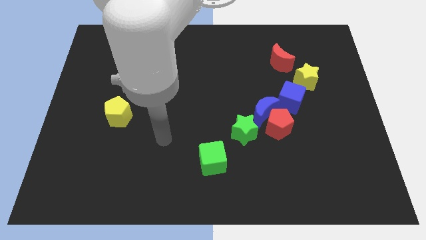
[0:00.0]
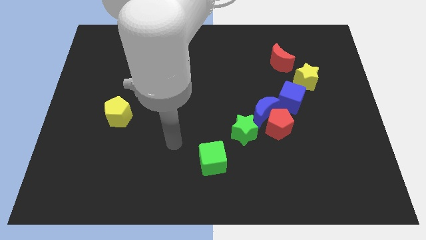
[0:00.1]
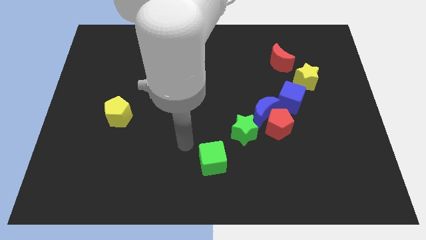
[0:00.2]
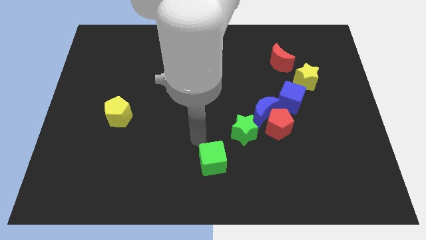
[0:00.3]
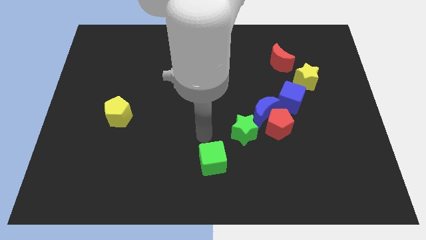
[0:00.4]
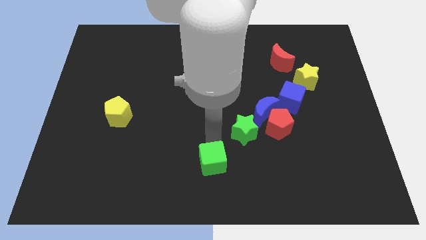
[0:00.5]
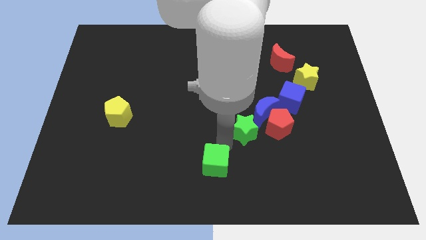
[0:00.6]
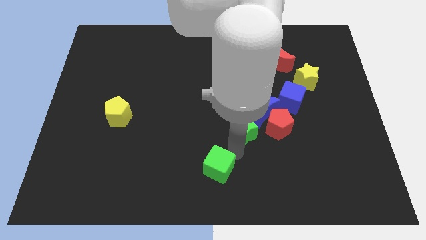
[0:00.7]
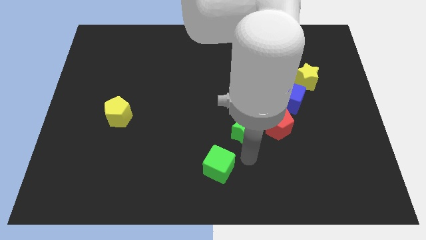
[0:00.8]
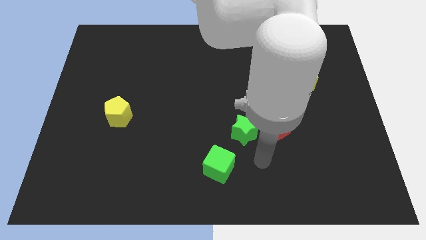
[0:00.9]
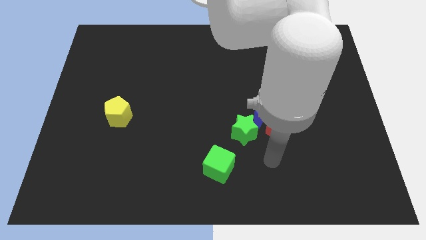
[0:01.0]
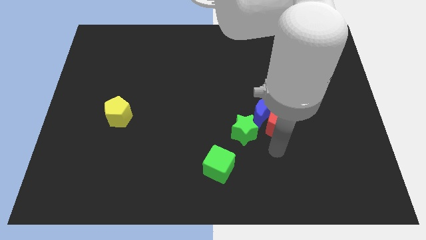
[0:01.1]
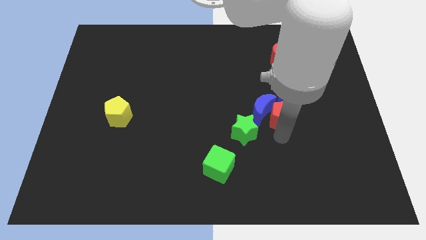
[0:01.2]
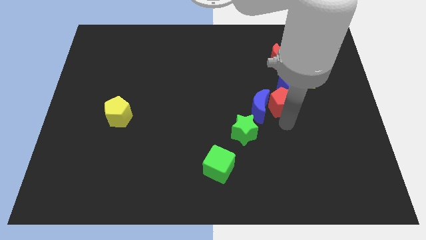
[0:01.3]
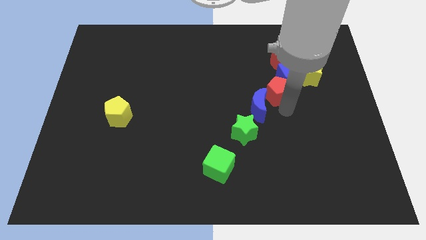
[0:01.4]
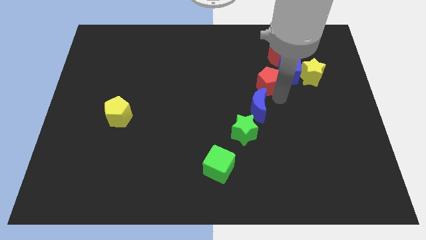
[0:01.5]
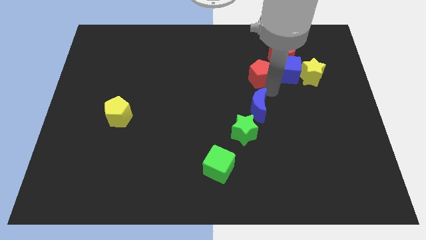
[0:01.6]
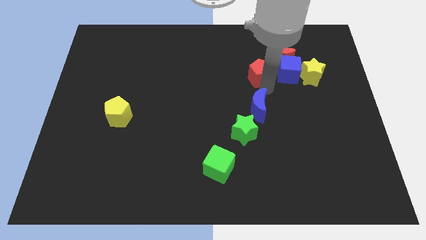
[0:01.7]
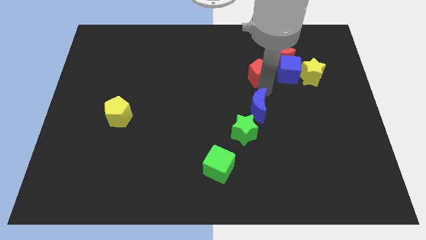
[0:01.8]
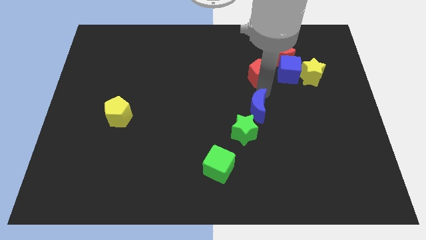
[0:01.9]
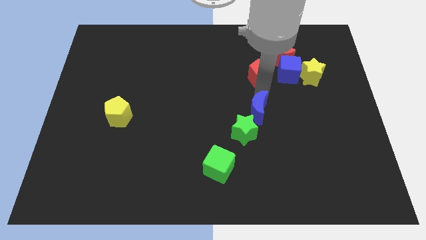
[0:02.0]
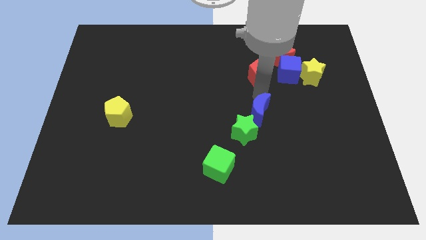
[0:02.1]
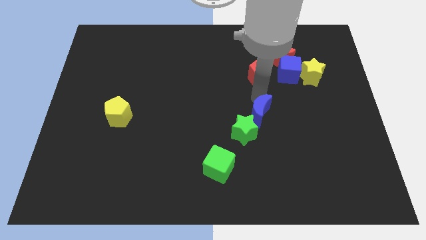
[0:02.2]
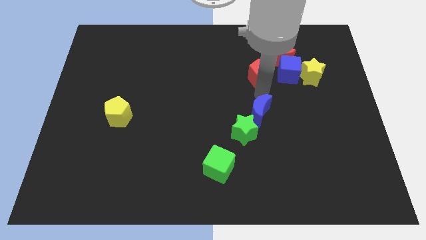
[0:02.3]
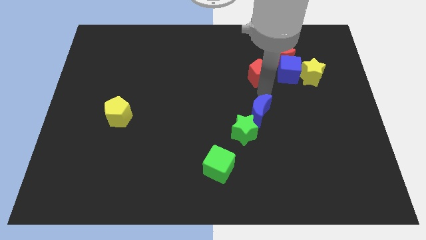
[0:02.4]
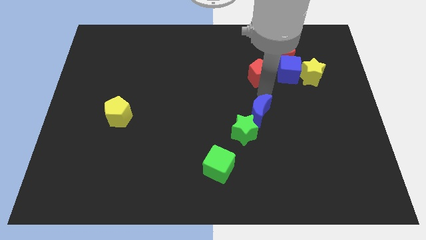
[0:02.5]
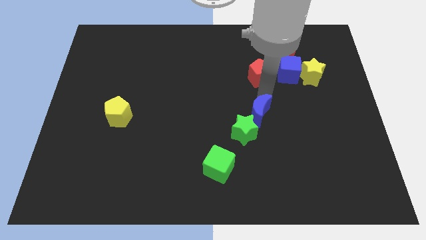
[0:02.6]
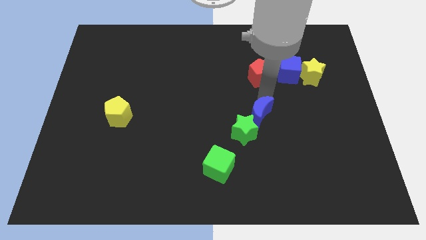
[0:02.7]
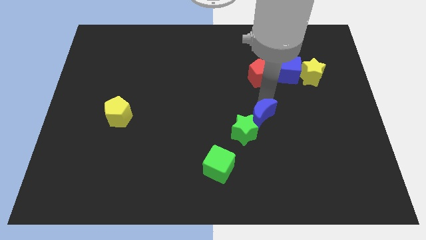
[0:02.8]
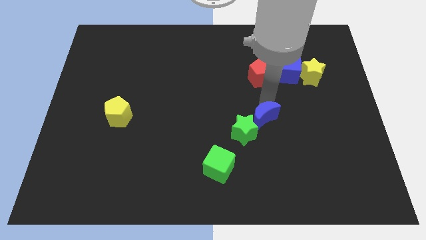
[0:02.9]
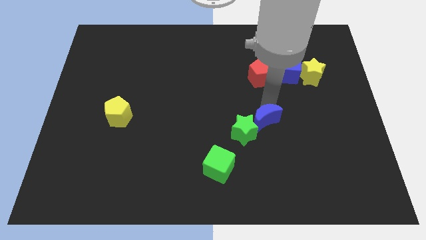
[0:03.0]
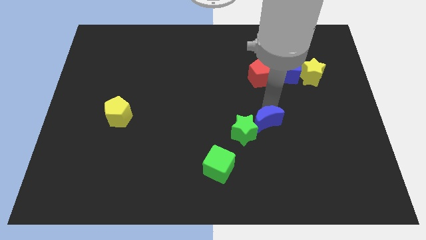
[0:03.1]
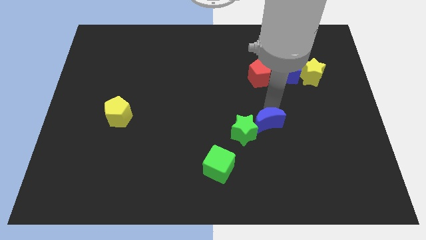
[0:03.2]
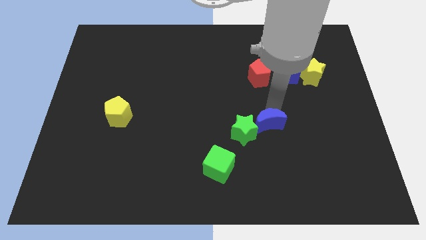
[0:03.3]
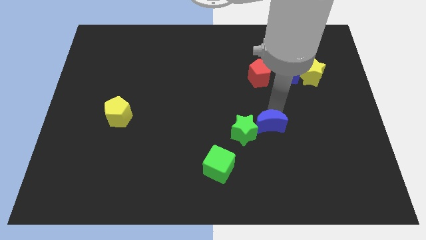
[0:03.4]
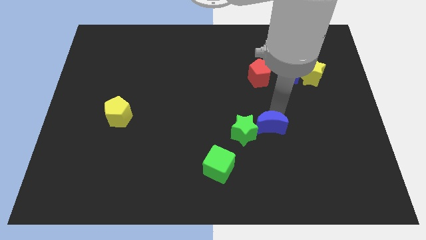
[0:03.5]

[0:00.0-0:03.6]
separate the blue moon from the red pentagon, green star, and blue cube

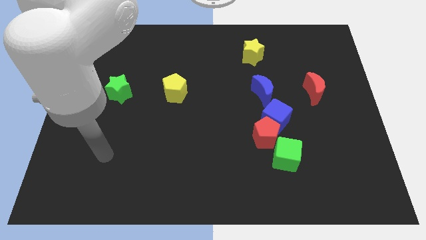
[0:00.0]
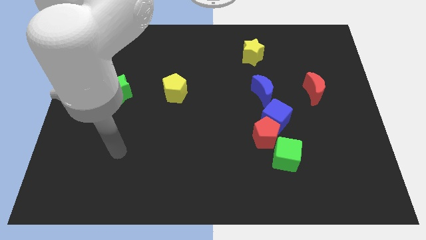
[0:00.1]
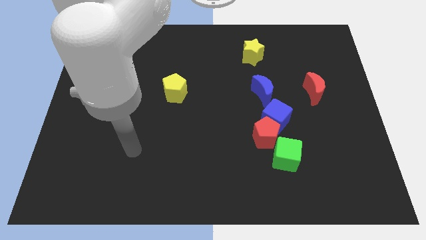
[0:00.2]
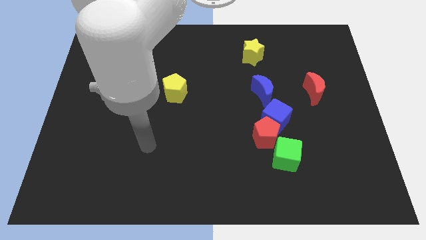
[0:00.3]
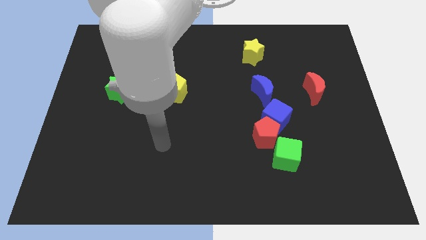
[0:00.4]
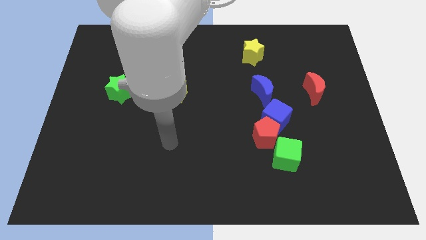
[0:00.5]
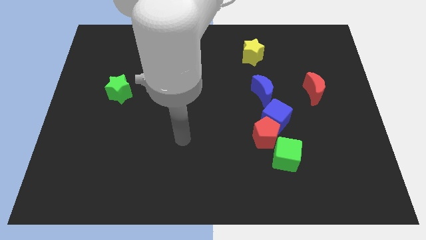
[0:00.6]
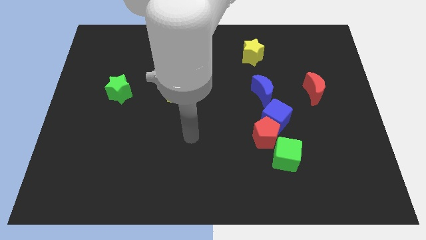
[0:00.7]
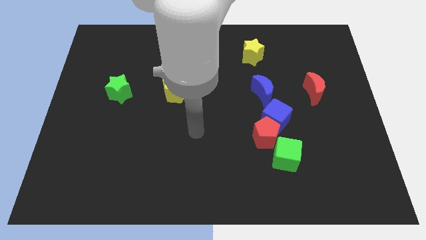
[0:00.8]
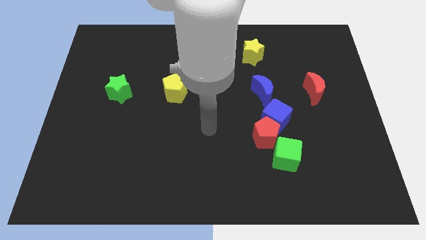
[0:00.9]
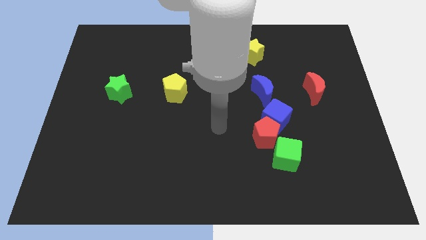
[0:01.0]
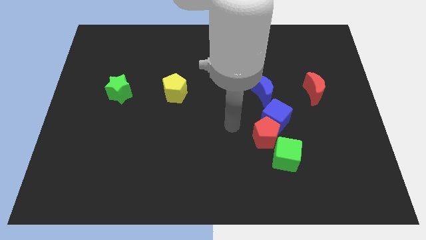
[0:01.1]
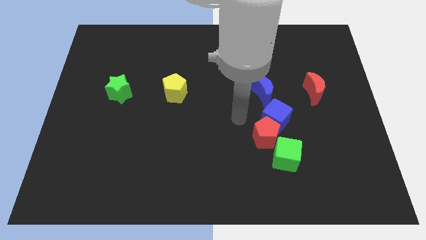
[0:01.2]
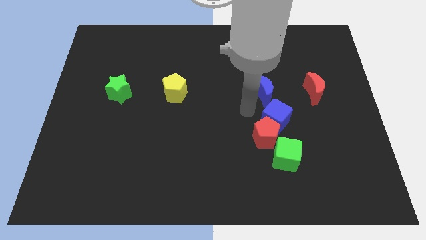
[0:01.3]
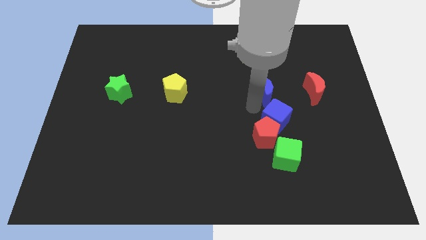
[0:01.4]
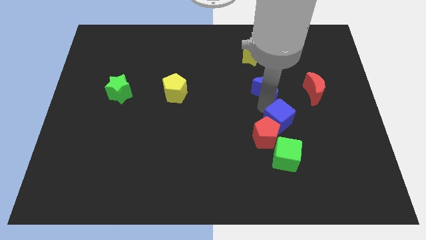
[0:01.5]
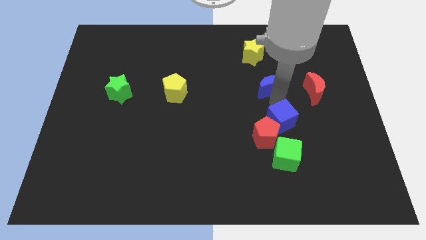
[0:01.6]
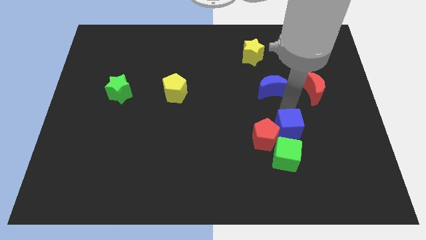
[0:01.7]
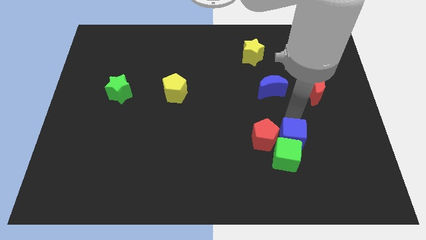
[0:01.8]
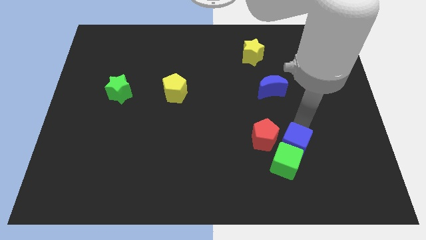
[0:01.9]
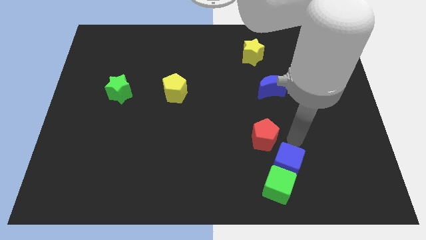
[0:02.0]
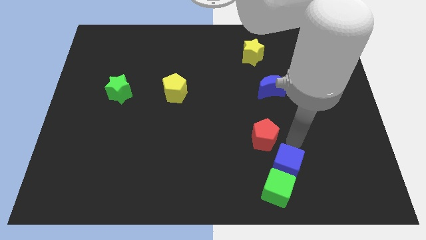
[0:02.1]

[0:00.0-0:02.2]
move the red pentagon away from the blue cube and green cube

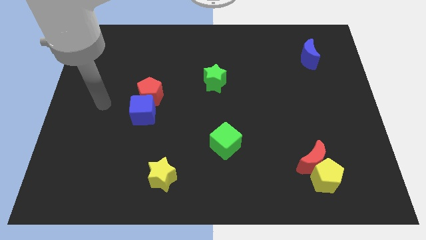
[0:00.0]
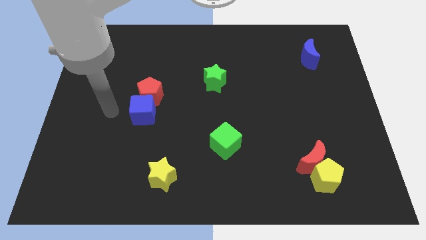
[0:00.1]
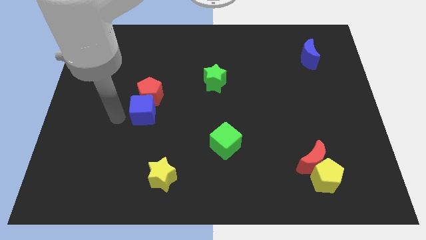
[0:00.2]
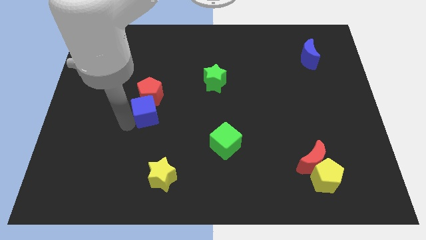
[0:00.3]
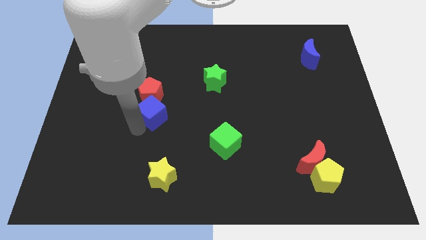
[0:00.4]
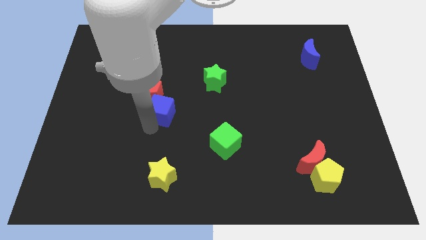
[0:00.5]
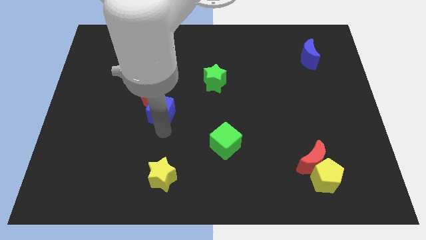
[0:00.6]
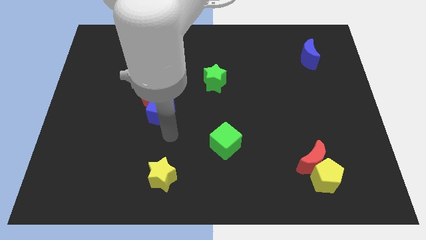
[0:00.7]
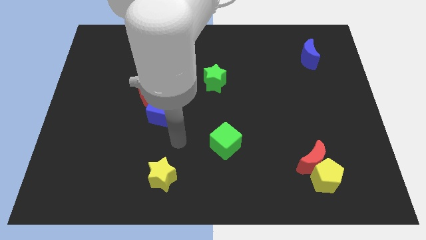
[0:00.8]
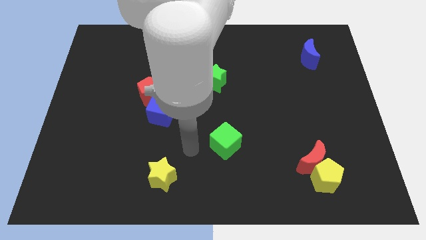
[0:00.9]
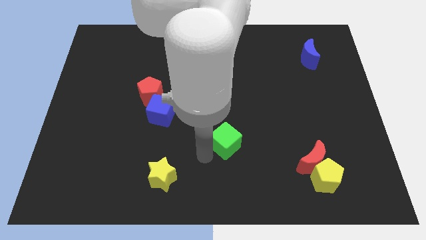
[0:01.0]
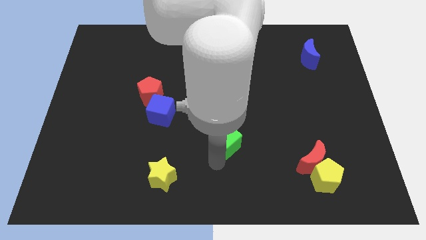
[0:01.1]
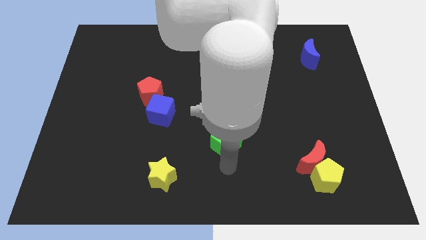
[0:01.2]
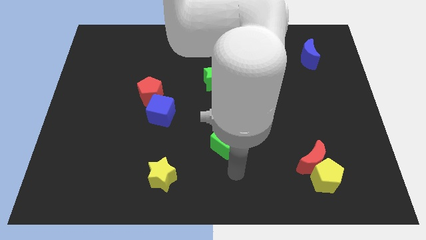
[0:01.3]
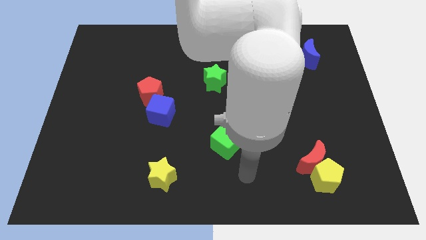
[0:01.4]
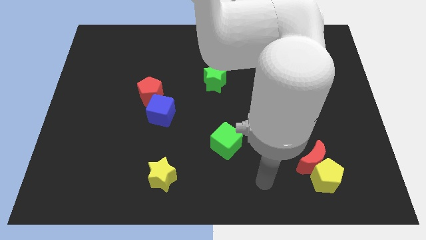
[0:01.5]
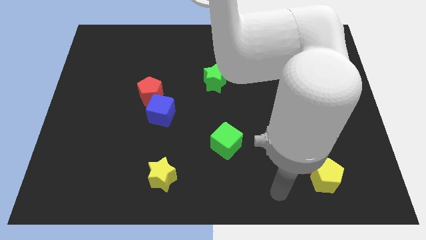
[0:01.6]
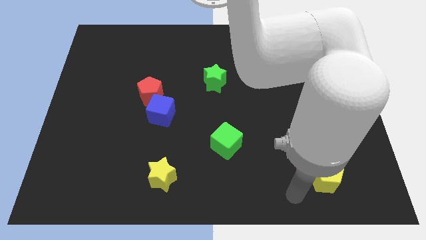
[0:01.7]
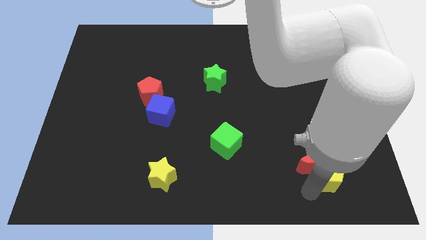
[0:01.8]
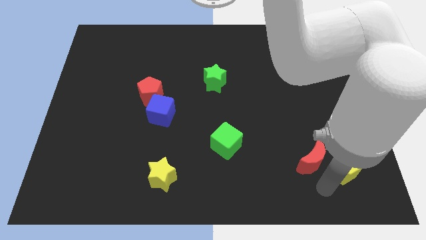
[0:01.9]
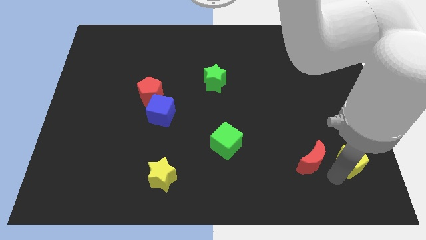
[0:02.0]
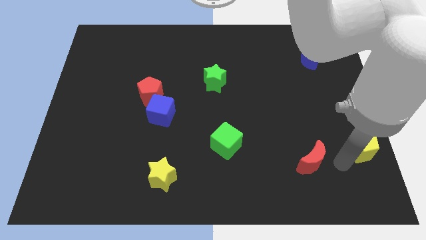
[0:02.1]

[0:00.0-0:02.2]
separate the red moon from the yellow pentagon

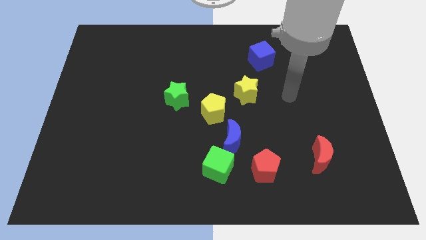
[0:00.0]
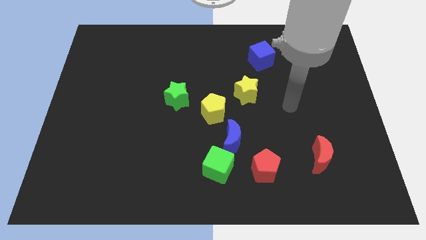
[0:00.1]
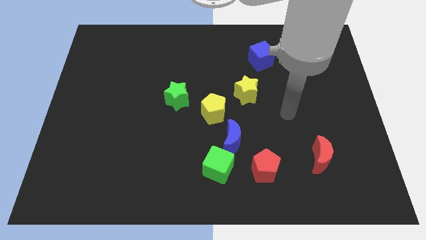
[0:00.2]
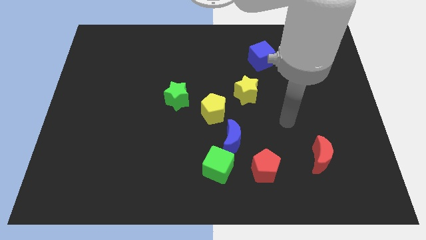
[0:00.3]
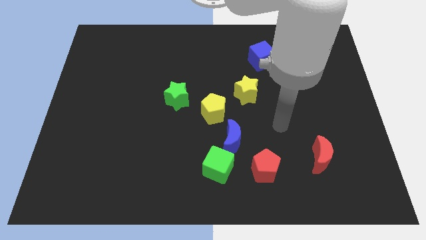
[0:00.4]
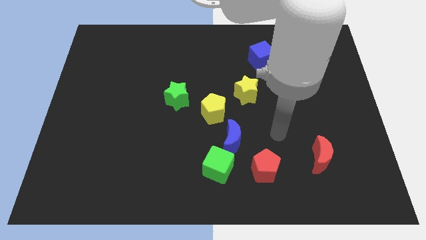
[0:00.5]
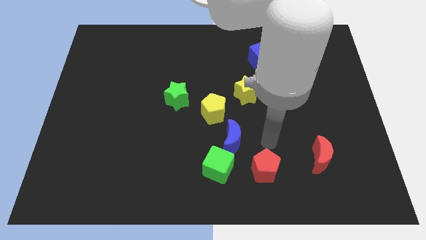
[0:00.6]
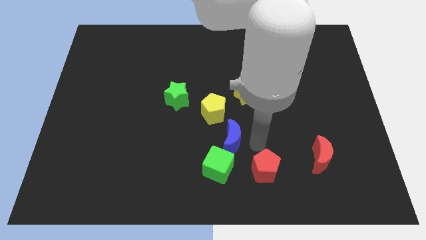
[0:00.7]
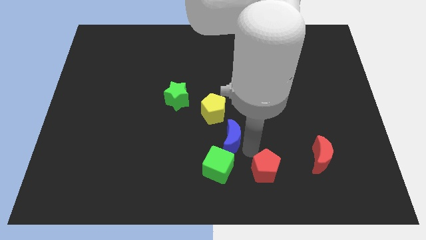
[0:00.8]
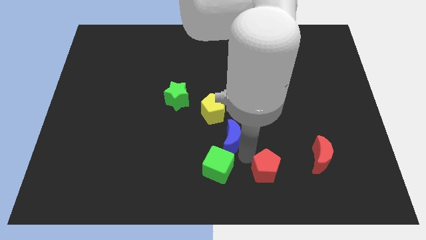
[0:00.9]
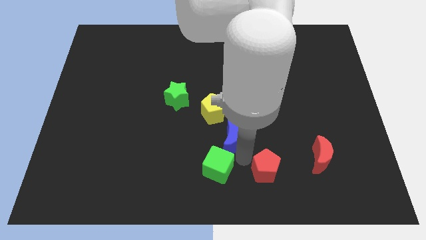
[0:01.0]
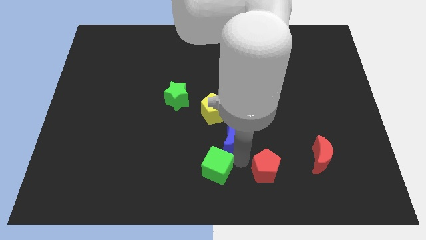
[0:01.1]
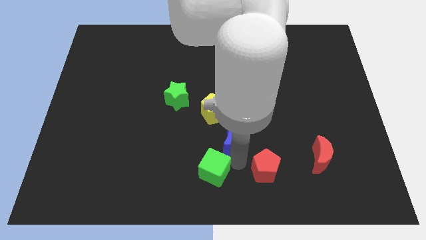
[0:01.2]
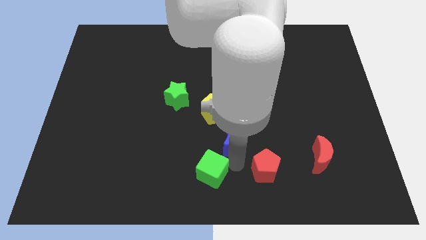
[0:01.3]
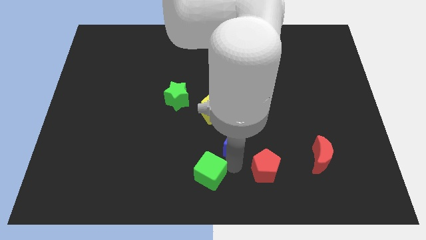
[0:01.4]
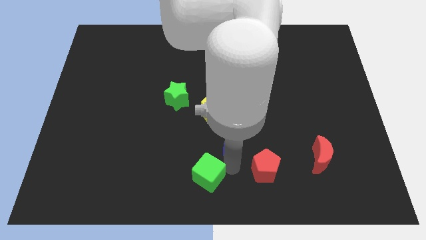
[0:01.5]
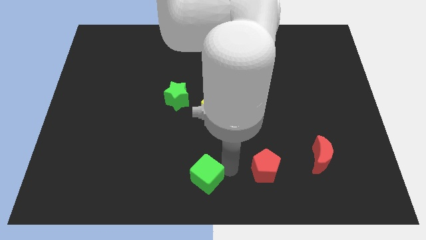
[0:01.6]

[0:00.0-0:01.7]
move the green cube away from the blue moon and red pentagon
